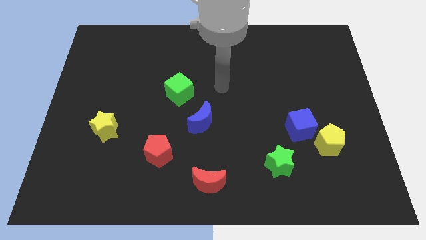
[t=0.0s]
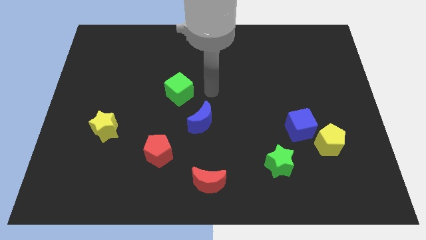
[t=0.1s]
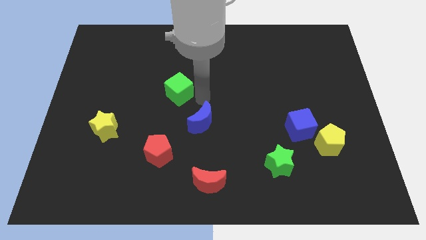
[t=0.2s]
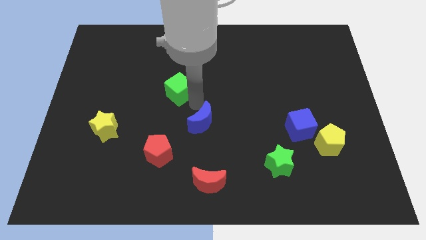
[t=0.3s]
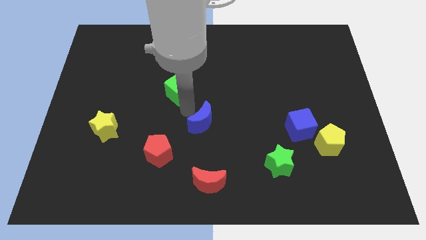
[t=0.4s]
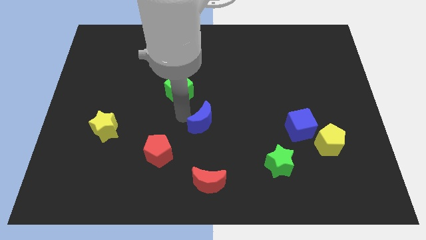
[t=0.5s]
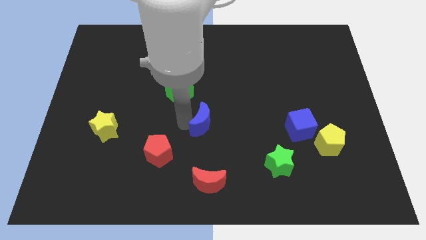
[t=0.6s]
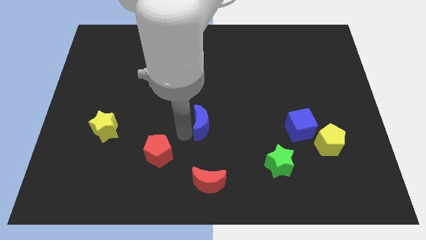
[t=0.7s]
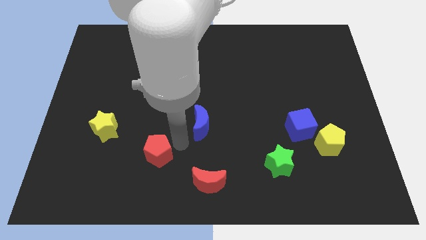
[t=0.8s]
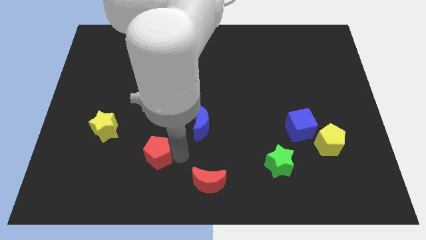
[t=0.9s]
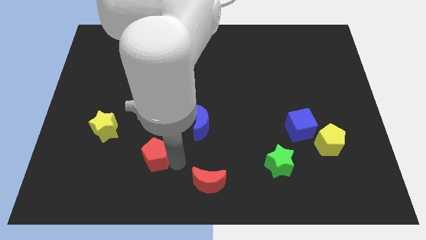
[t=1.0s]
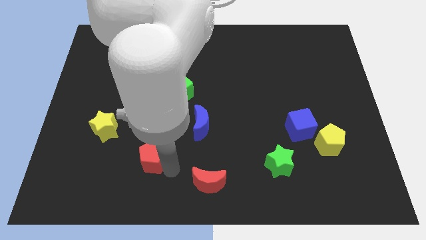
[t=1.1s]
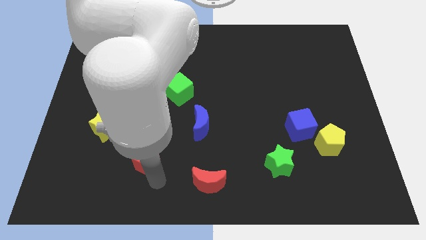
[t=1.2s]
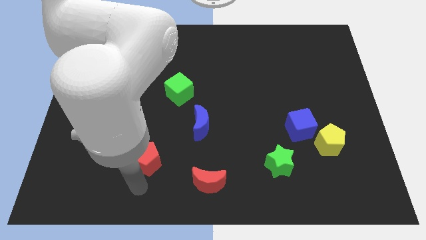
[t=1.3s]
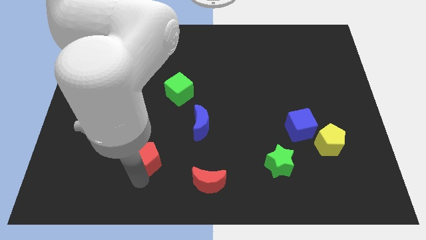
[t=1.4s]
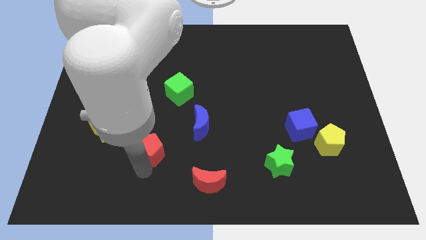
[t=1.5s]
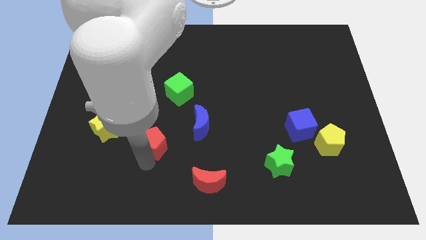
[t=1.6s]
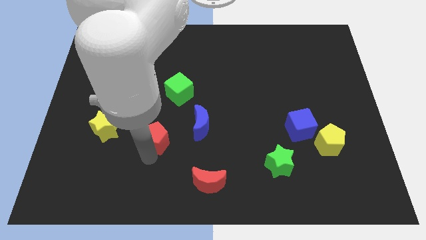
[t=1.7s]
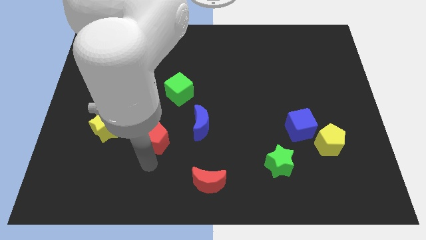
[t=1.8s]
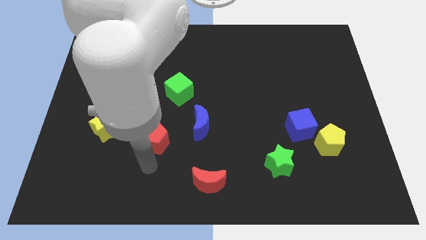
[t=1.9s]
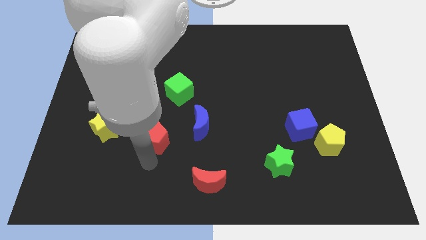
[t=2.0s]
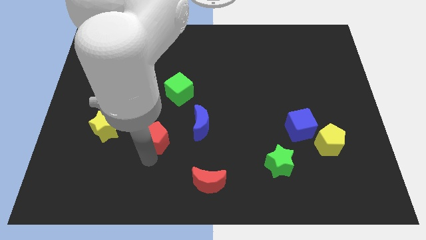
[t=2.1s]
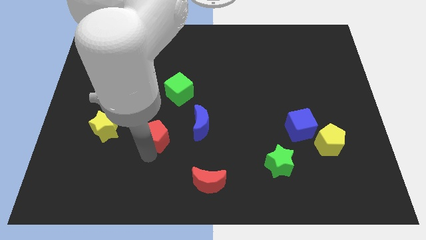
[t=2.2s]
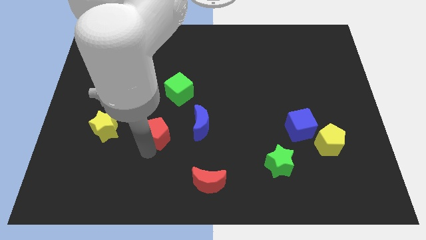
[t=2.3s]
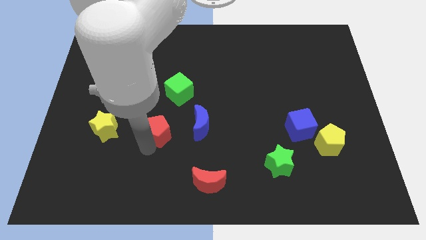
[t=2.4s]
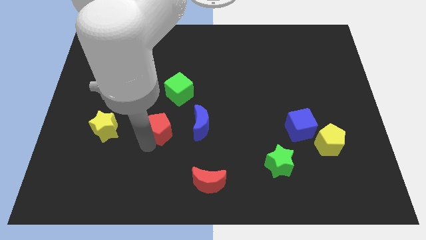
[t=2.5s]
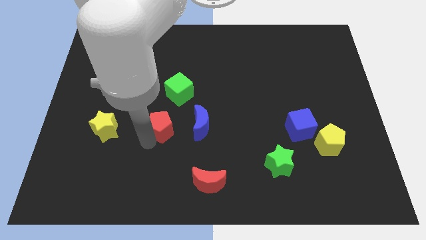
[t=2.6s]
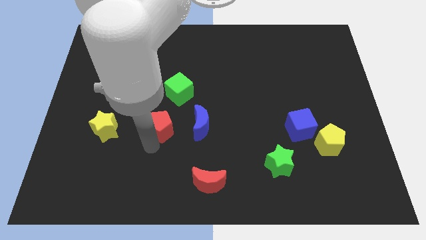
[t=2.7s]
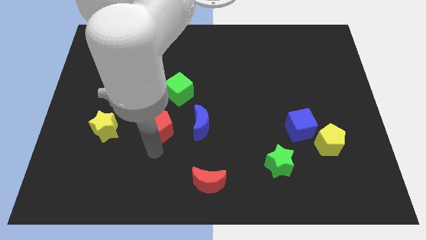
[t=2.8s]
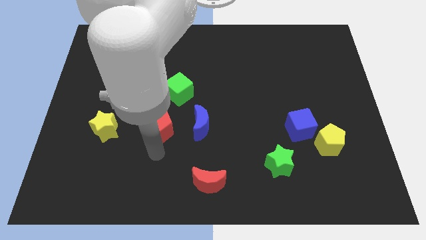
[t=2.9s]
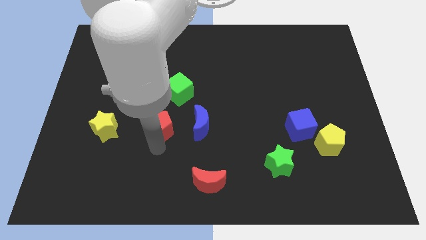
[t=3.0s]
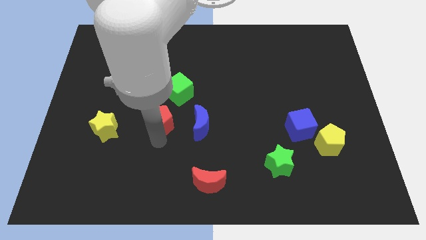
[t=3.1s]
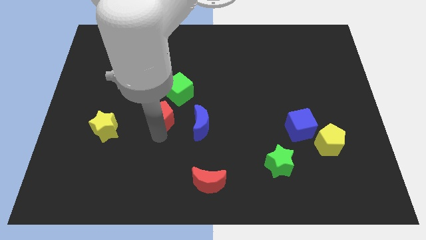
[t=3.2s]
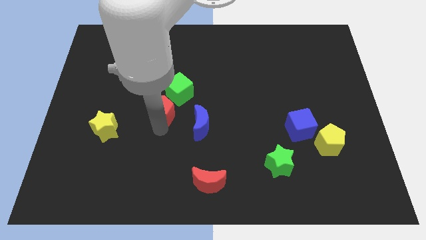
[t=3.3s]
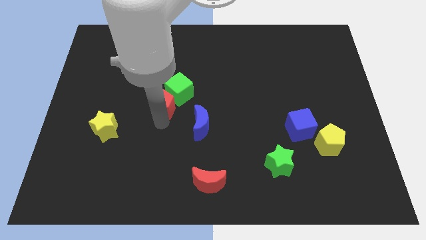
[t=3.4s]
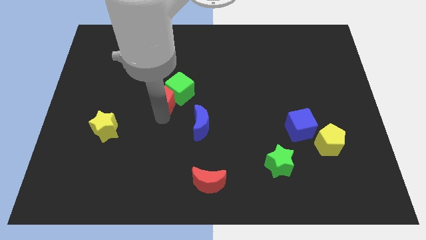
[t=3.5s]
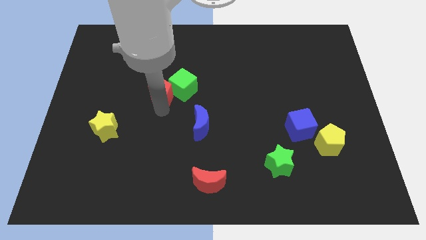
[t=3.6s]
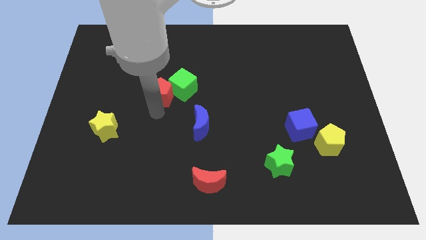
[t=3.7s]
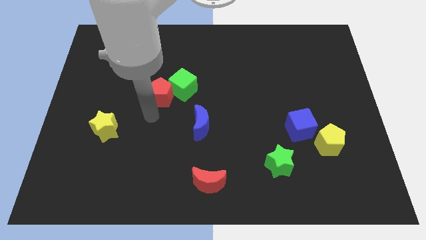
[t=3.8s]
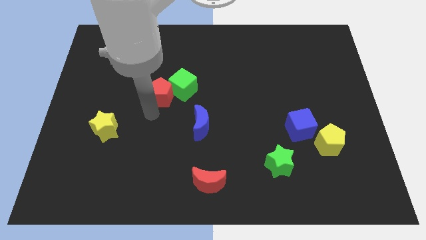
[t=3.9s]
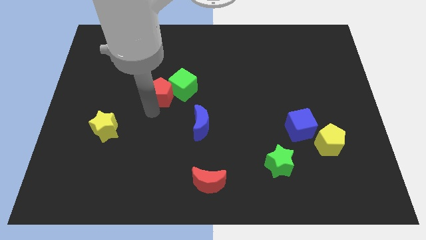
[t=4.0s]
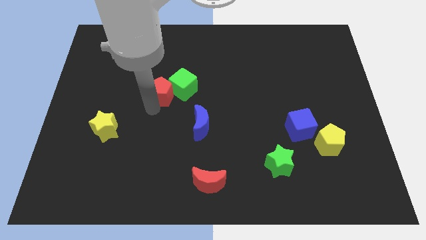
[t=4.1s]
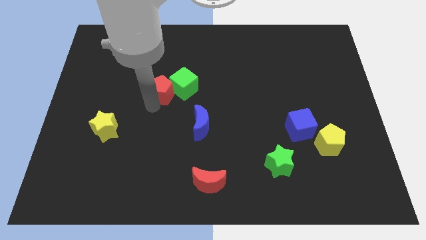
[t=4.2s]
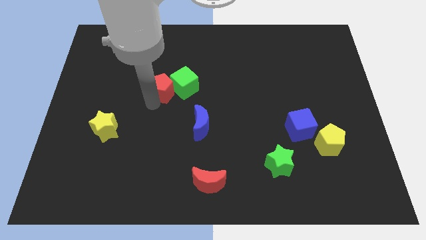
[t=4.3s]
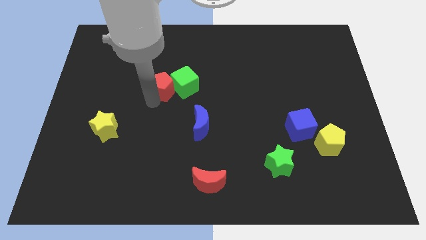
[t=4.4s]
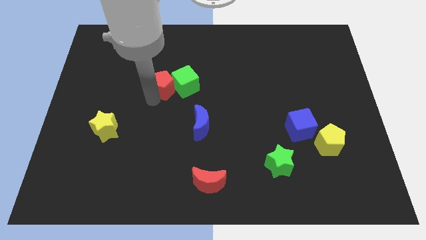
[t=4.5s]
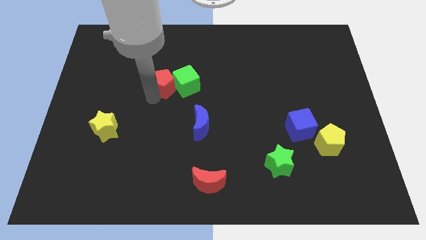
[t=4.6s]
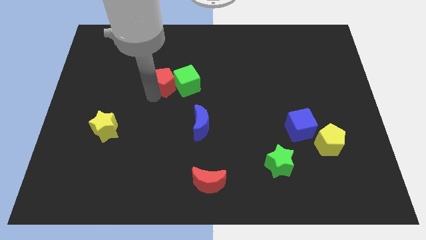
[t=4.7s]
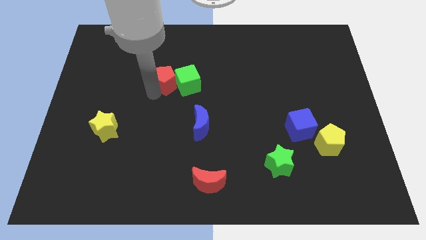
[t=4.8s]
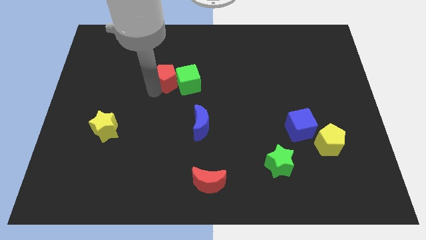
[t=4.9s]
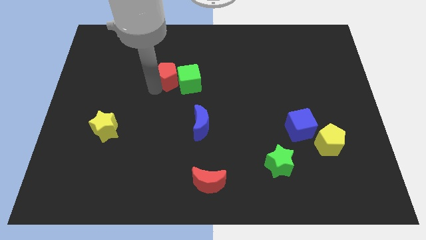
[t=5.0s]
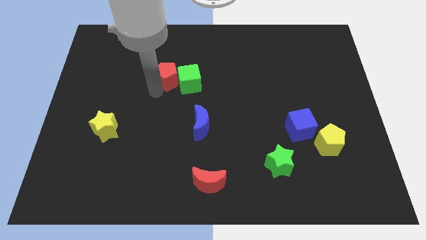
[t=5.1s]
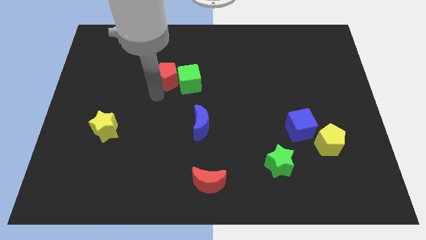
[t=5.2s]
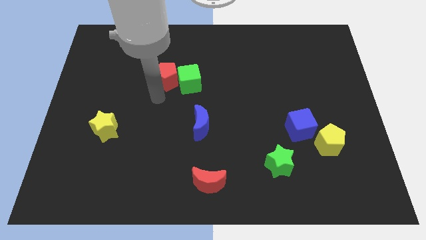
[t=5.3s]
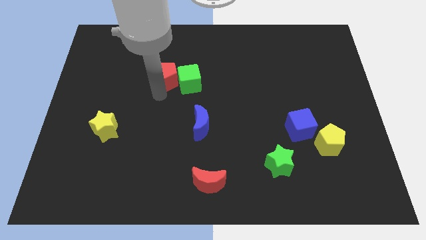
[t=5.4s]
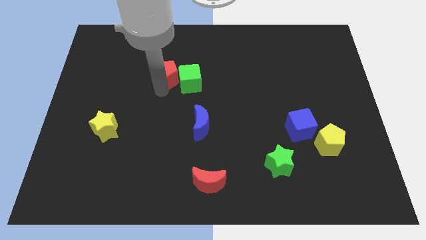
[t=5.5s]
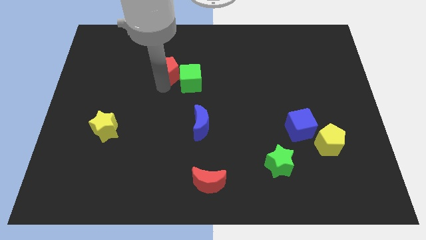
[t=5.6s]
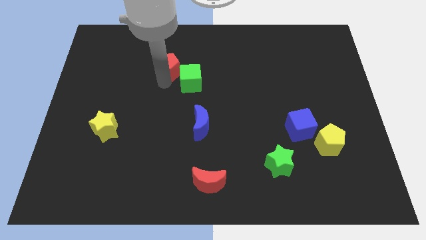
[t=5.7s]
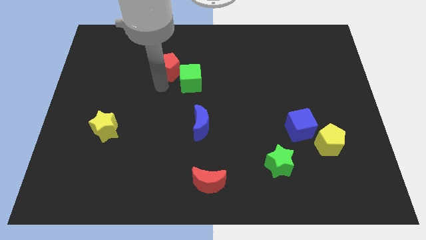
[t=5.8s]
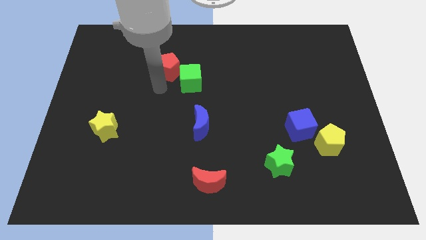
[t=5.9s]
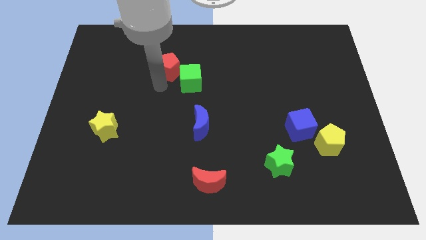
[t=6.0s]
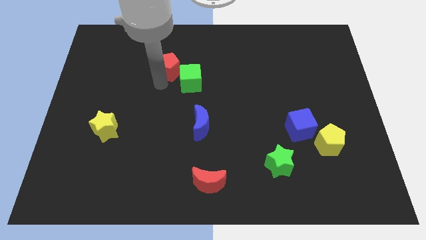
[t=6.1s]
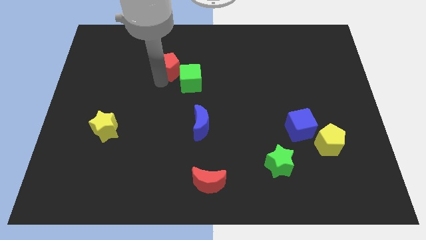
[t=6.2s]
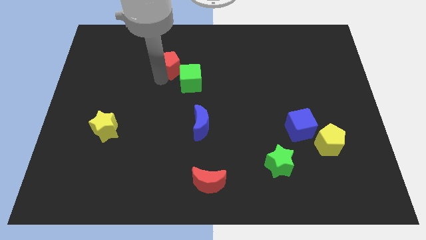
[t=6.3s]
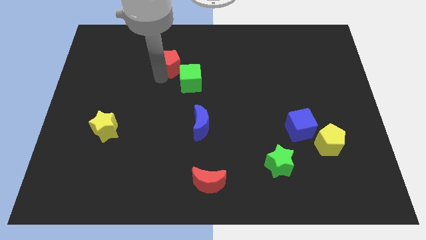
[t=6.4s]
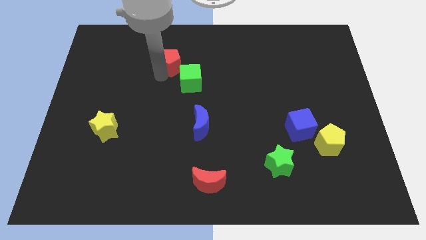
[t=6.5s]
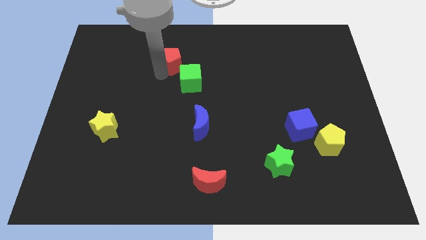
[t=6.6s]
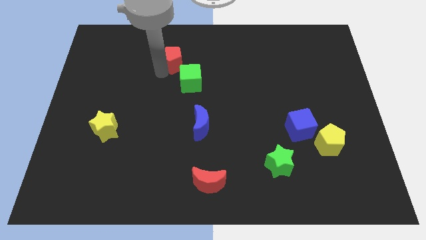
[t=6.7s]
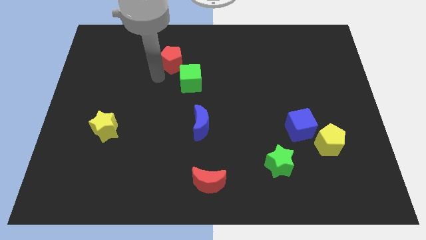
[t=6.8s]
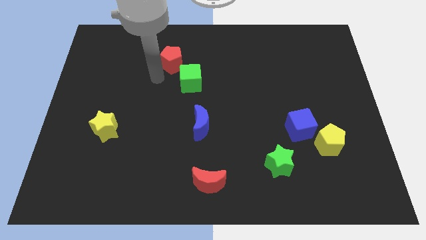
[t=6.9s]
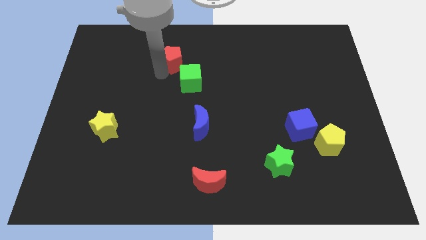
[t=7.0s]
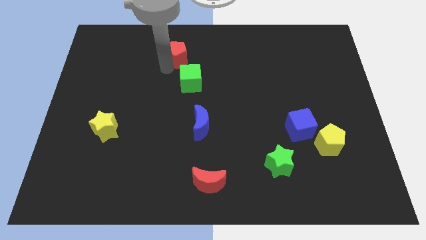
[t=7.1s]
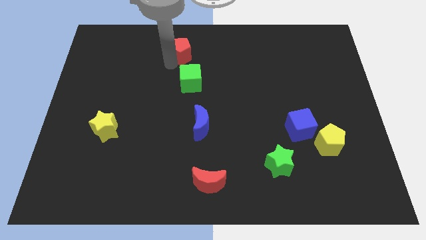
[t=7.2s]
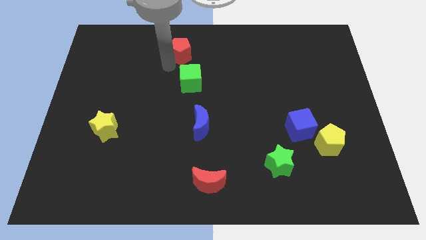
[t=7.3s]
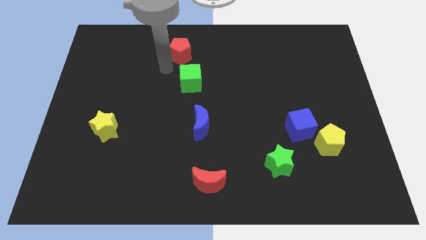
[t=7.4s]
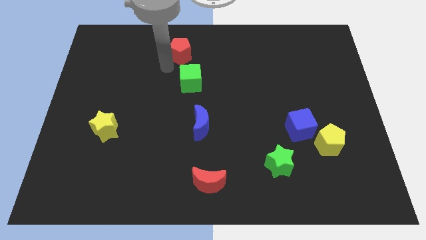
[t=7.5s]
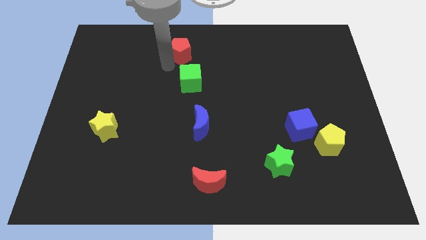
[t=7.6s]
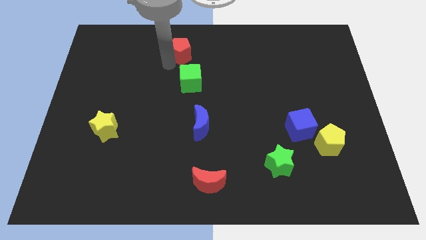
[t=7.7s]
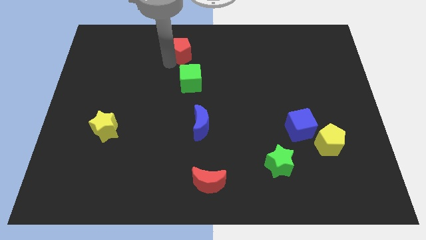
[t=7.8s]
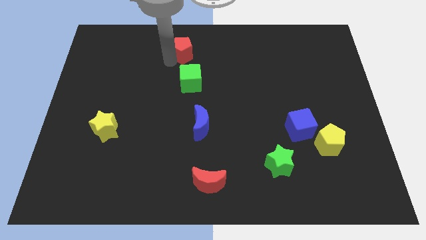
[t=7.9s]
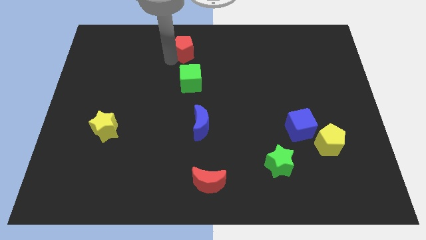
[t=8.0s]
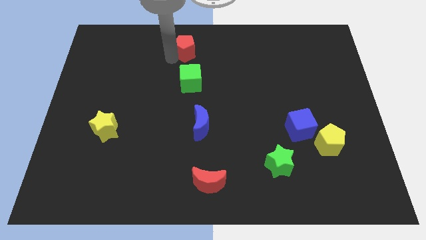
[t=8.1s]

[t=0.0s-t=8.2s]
put the red pentagon to the top
